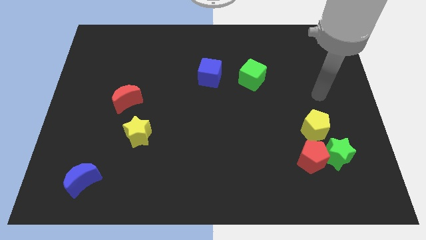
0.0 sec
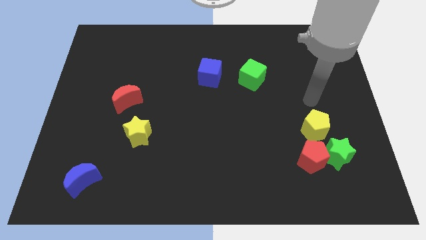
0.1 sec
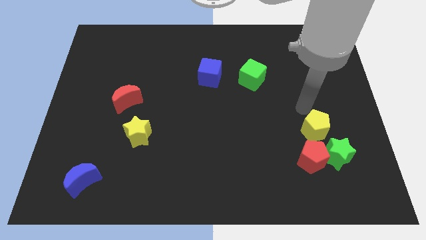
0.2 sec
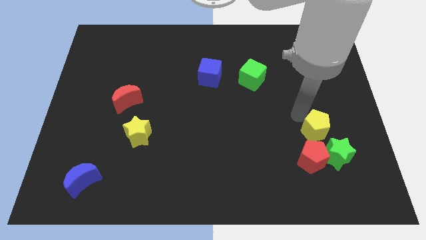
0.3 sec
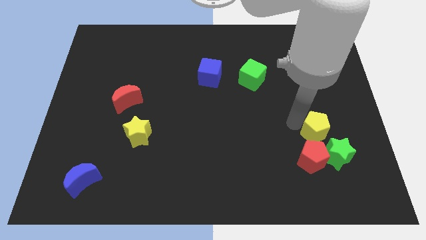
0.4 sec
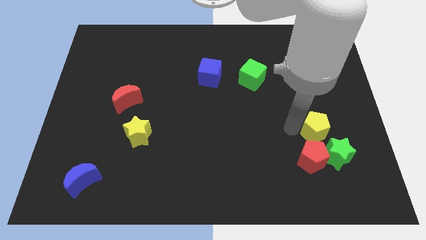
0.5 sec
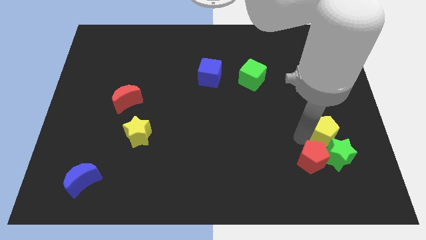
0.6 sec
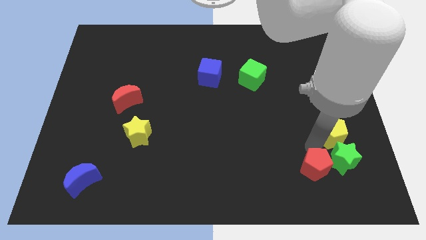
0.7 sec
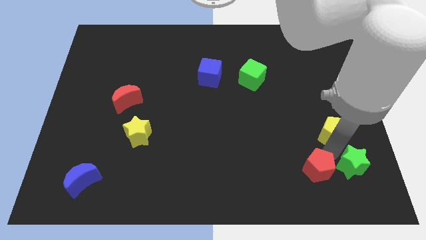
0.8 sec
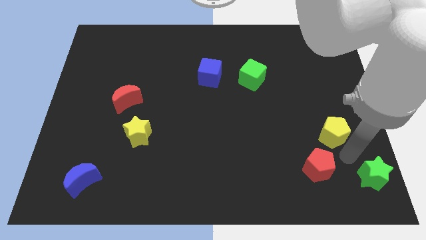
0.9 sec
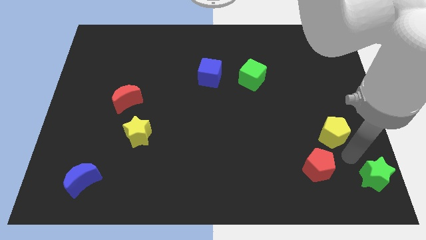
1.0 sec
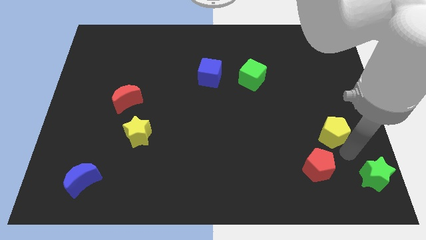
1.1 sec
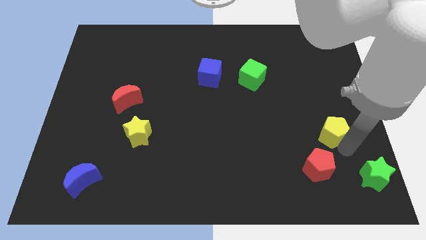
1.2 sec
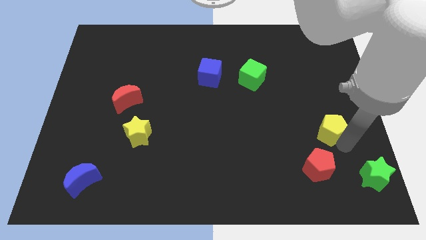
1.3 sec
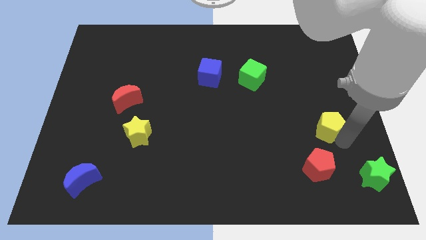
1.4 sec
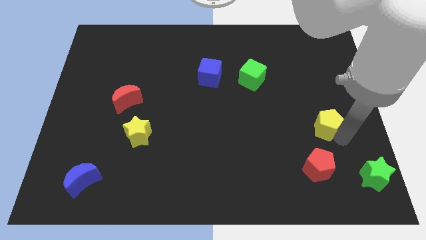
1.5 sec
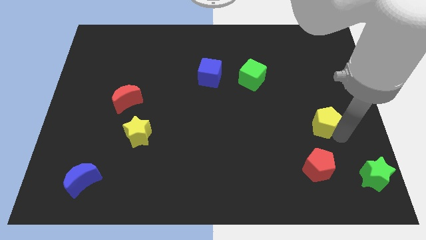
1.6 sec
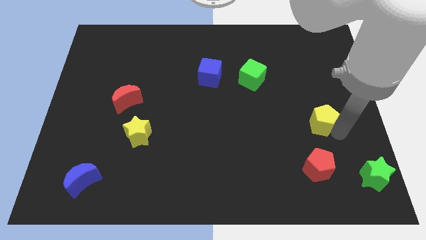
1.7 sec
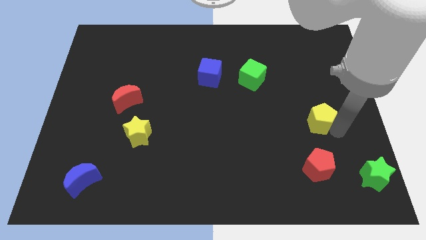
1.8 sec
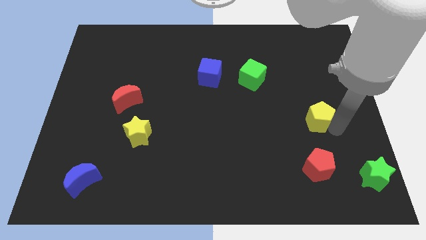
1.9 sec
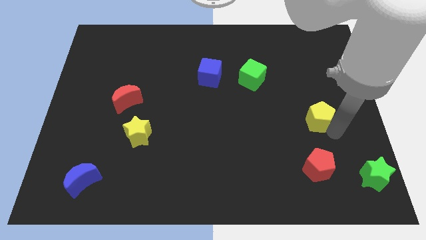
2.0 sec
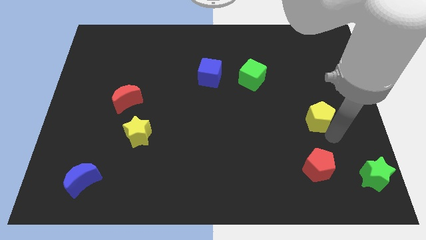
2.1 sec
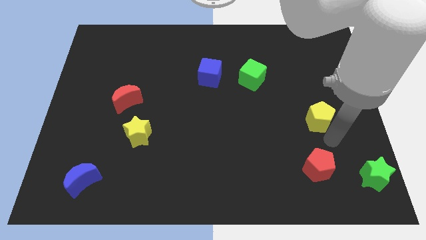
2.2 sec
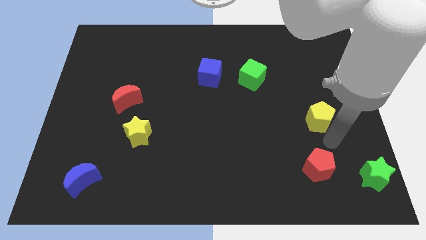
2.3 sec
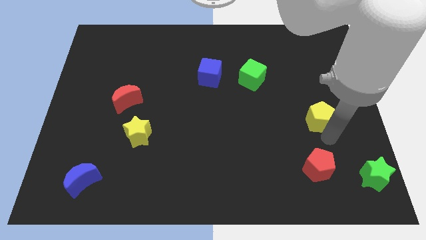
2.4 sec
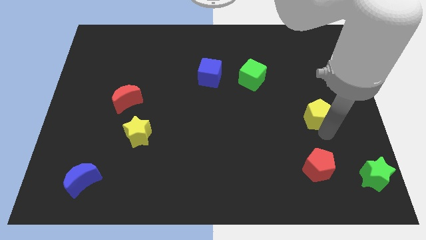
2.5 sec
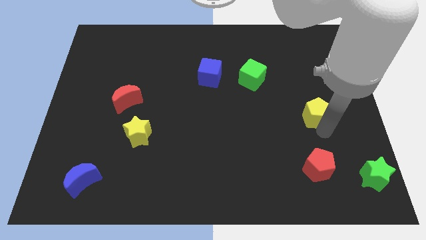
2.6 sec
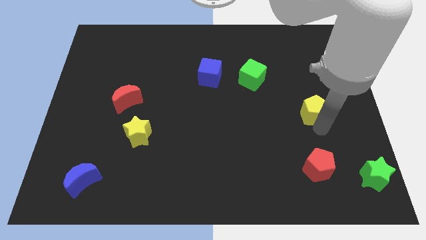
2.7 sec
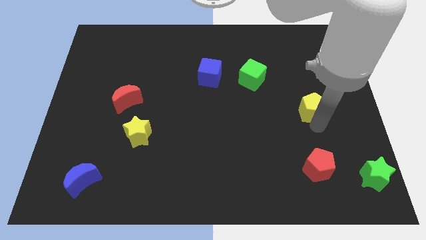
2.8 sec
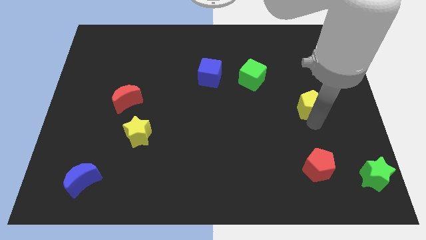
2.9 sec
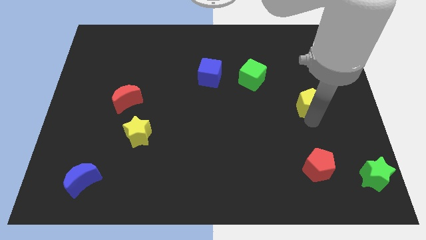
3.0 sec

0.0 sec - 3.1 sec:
move the yellow pentagon slightly upwards

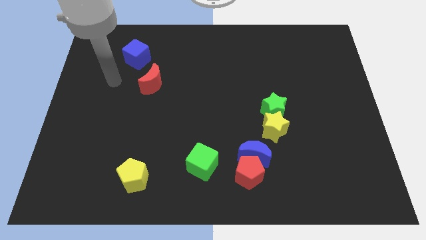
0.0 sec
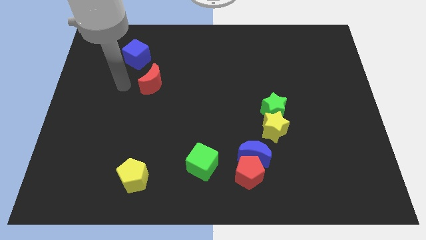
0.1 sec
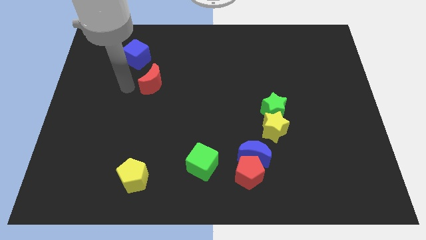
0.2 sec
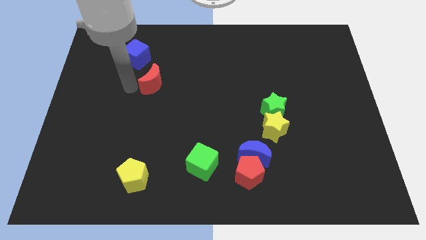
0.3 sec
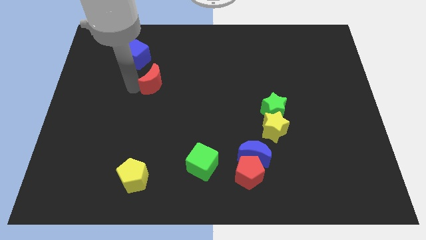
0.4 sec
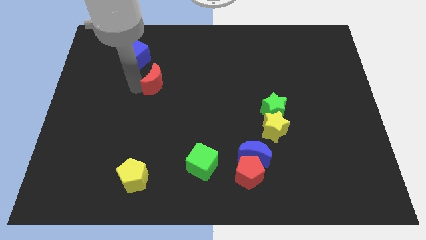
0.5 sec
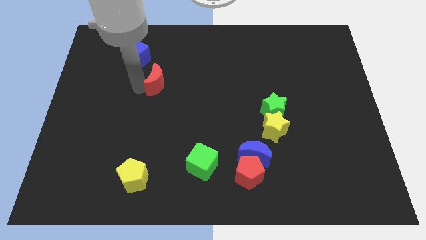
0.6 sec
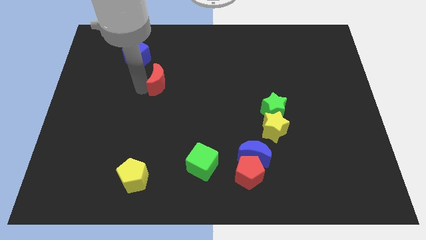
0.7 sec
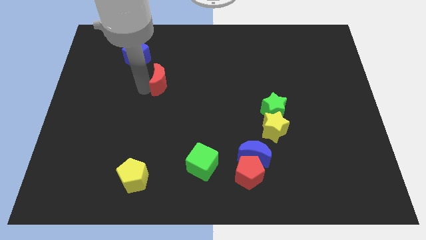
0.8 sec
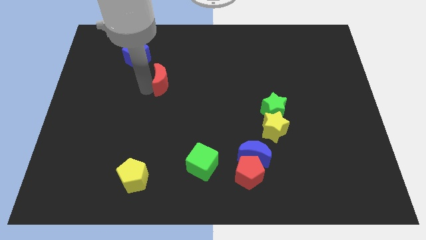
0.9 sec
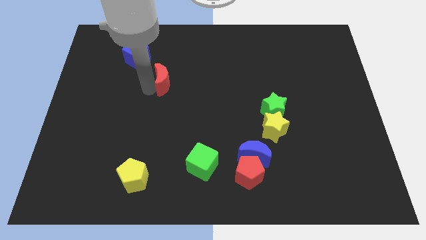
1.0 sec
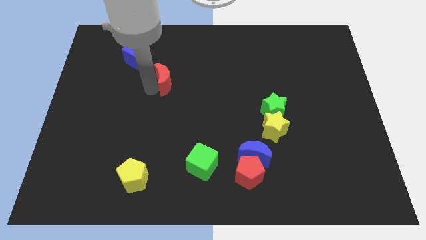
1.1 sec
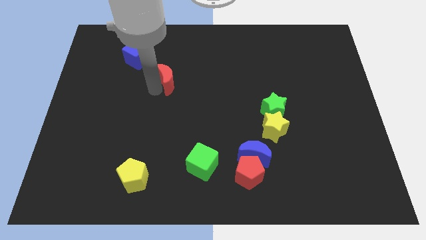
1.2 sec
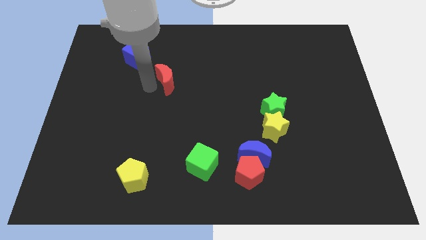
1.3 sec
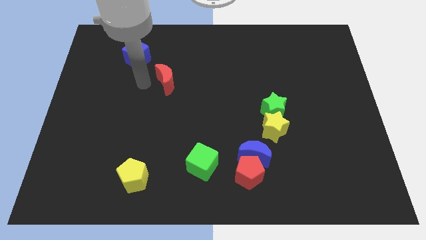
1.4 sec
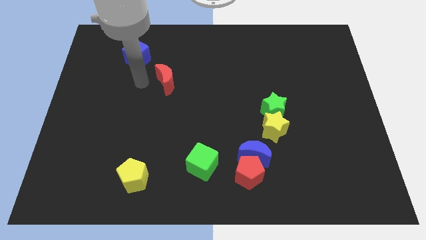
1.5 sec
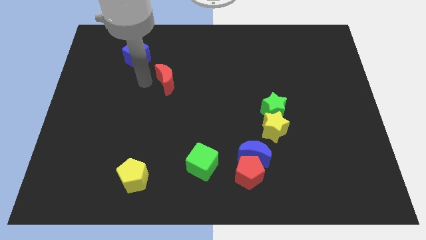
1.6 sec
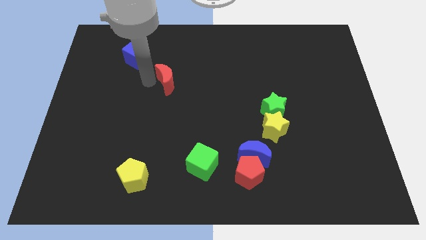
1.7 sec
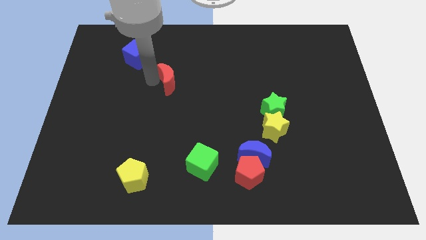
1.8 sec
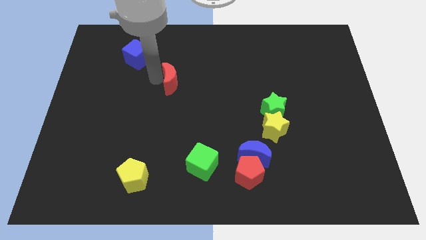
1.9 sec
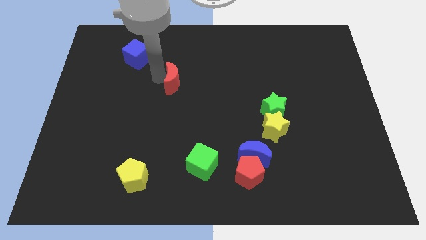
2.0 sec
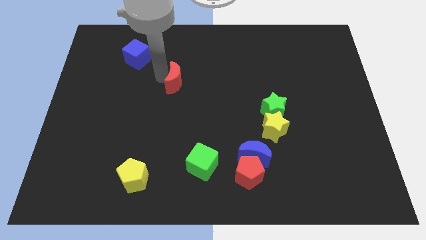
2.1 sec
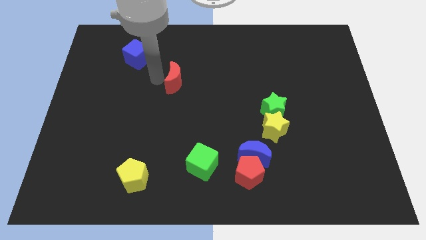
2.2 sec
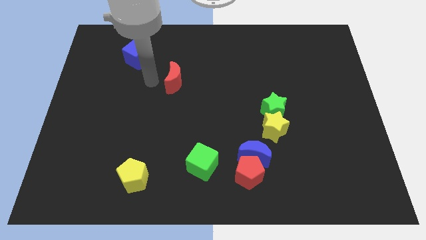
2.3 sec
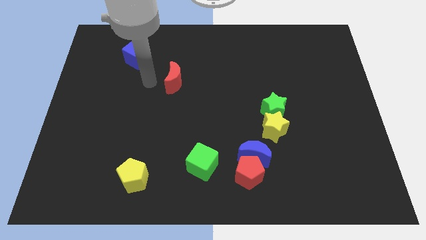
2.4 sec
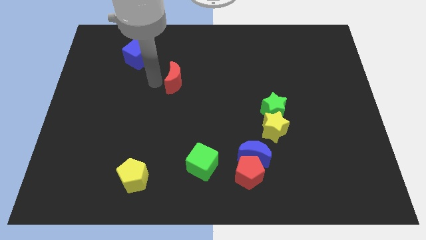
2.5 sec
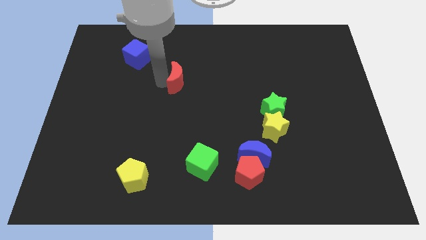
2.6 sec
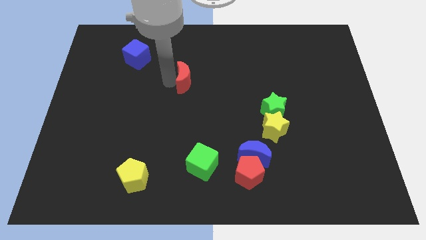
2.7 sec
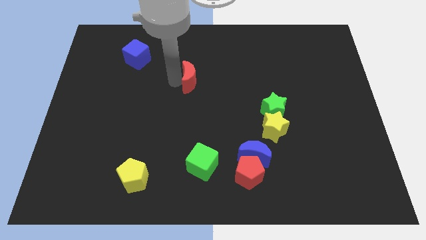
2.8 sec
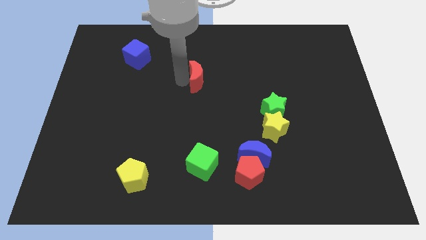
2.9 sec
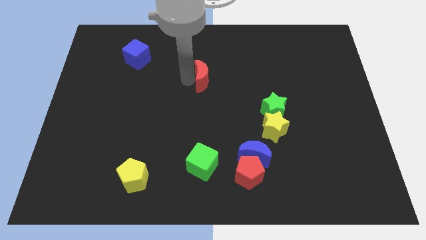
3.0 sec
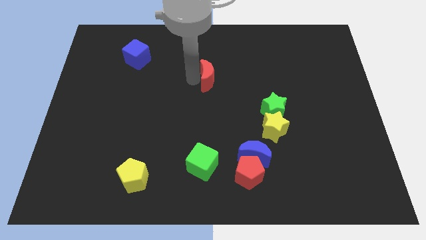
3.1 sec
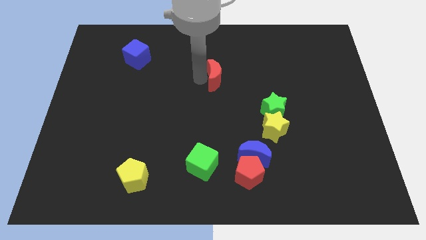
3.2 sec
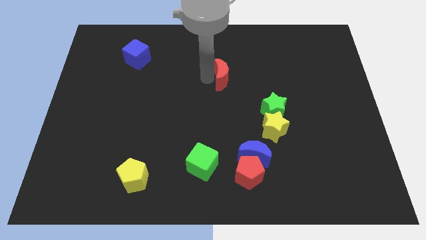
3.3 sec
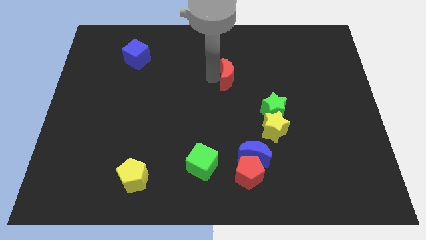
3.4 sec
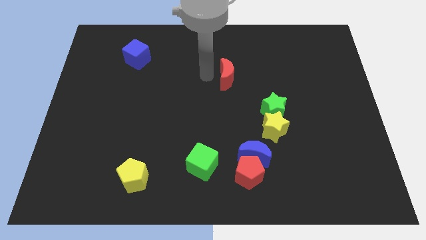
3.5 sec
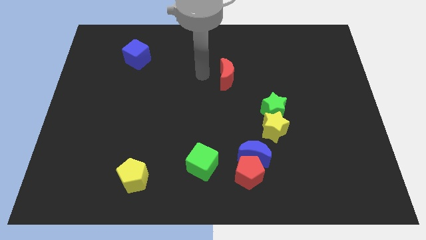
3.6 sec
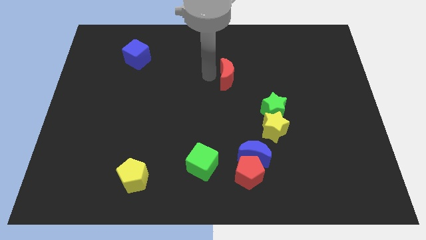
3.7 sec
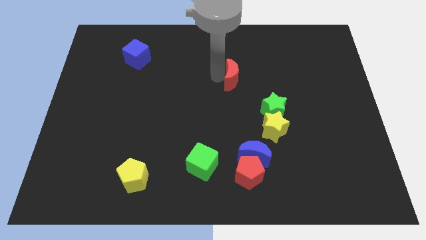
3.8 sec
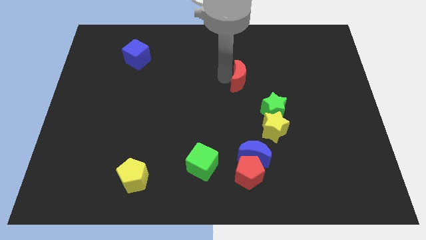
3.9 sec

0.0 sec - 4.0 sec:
slide the red moon to the right

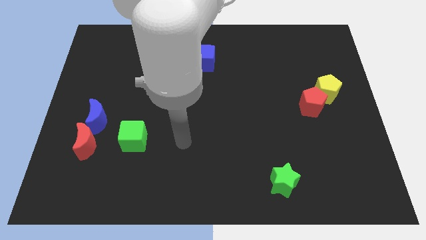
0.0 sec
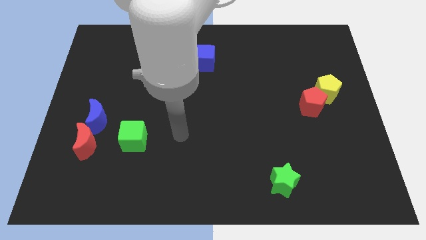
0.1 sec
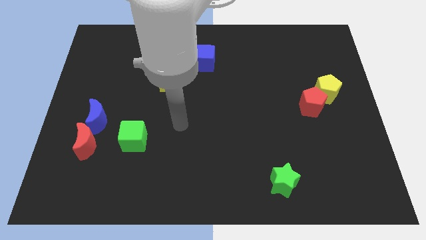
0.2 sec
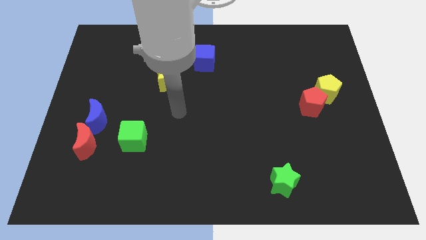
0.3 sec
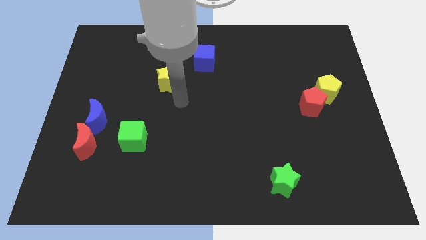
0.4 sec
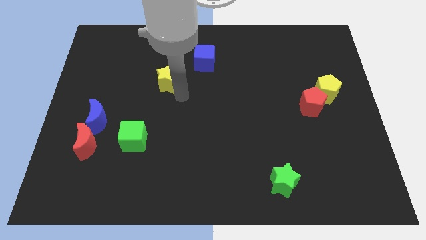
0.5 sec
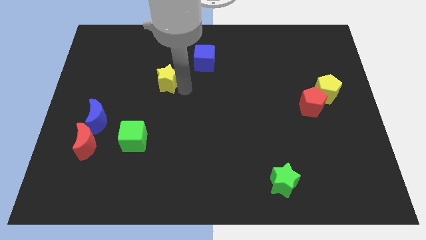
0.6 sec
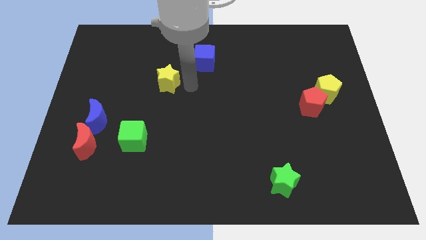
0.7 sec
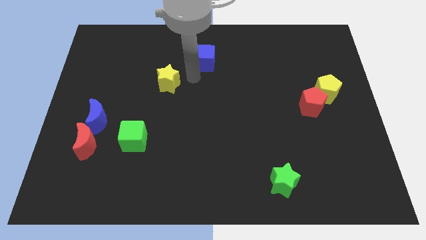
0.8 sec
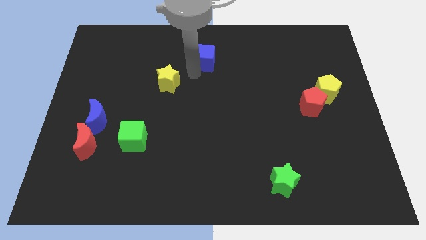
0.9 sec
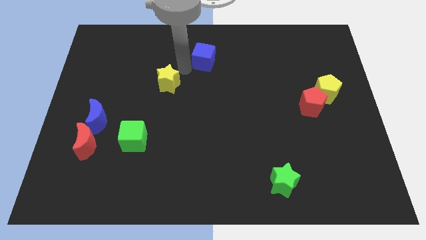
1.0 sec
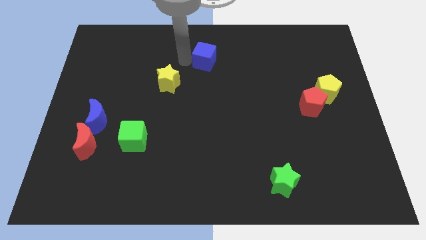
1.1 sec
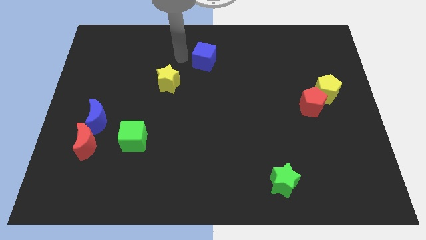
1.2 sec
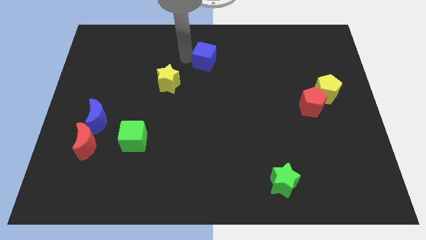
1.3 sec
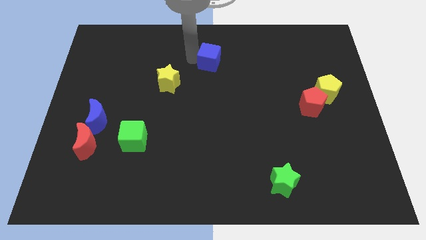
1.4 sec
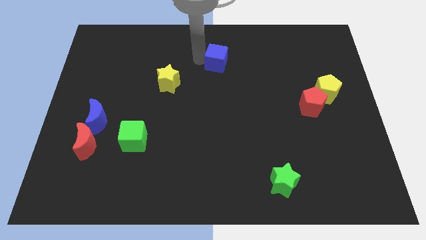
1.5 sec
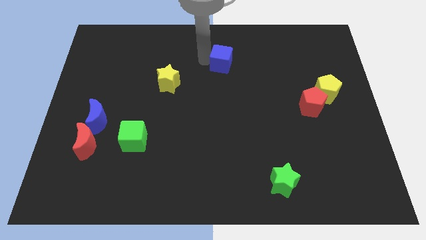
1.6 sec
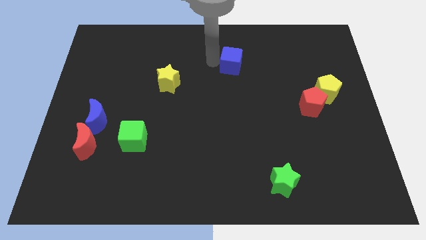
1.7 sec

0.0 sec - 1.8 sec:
slide the blue cube a little bit to the right
